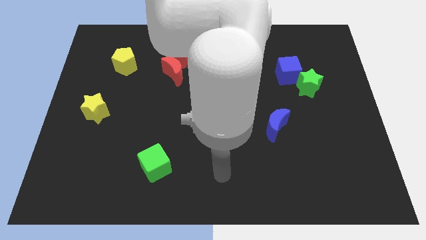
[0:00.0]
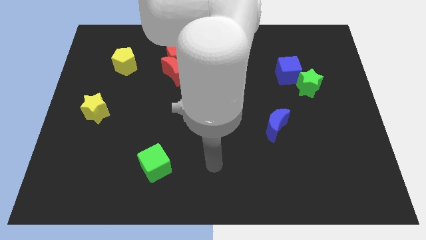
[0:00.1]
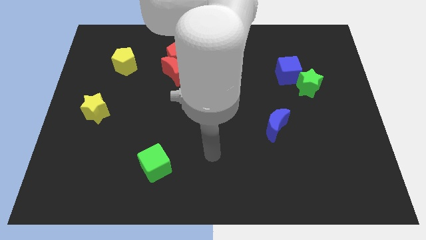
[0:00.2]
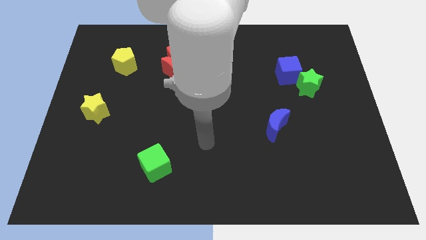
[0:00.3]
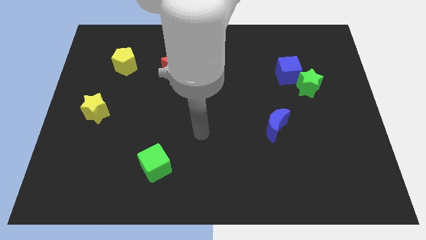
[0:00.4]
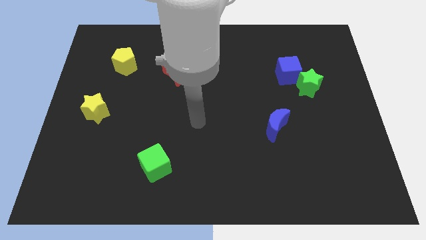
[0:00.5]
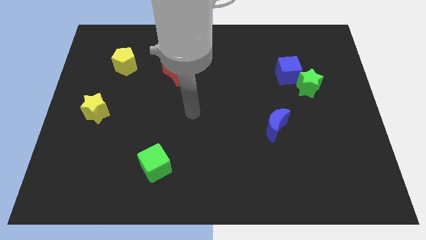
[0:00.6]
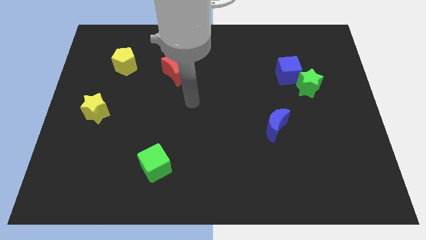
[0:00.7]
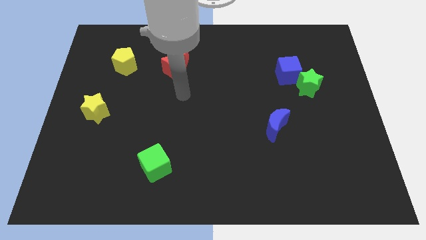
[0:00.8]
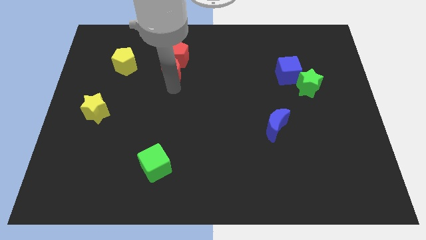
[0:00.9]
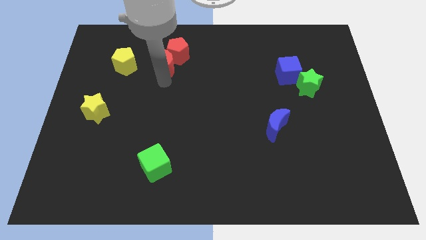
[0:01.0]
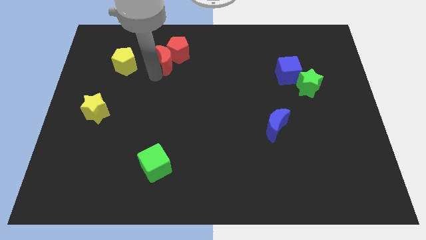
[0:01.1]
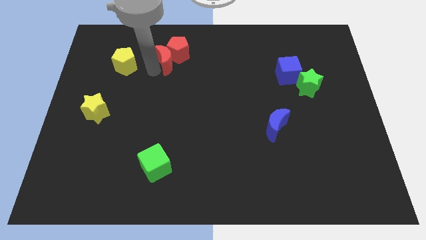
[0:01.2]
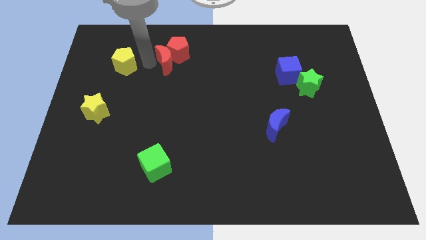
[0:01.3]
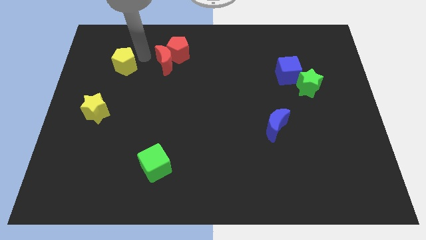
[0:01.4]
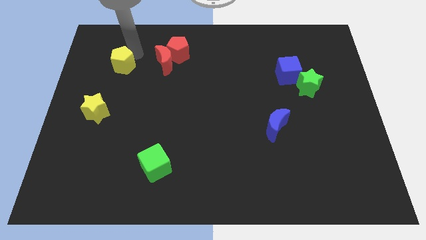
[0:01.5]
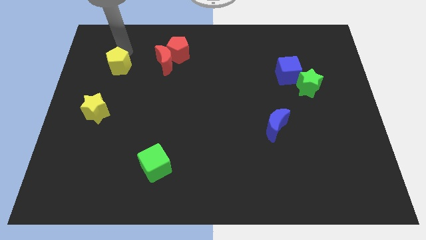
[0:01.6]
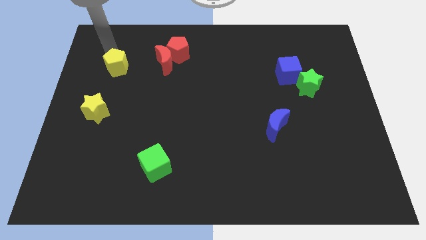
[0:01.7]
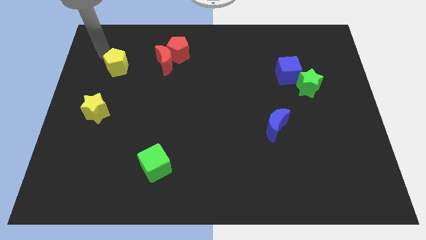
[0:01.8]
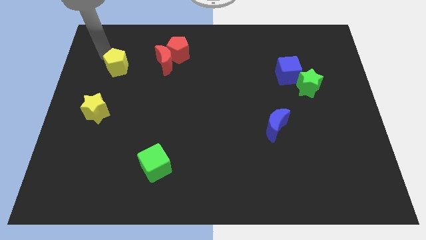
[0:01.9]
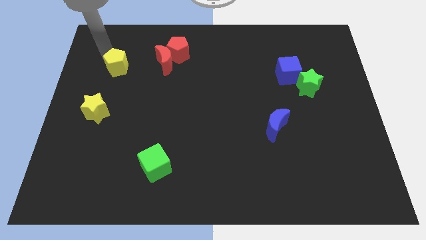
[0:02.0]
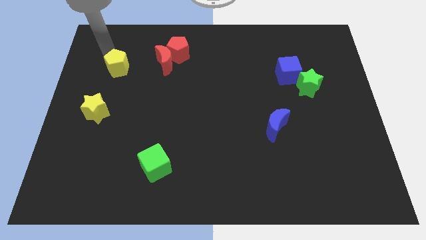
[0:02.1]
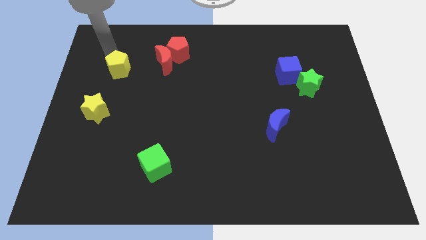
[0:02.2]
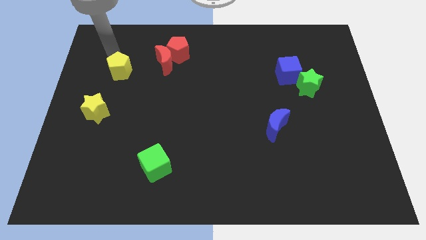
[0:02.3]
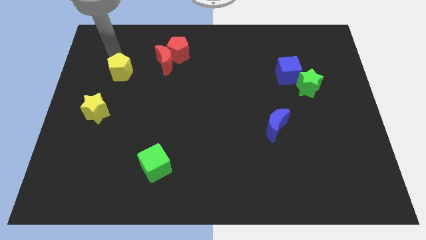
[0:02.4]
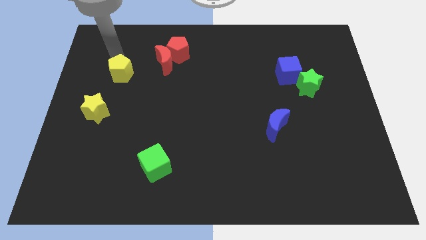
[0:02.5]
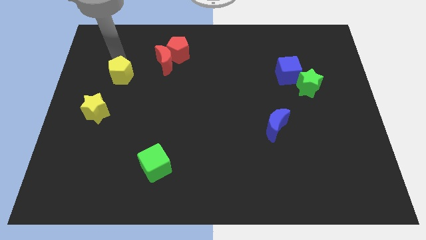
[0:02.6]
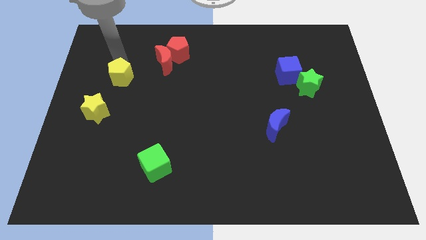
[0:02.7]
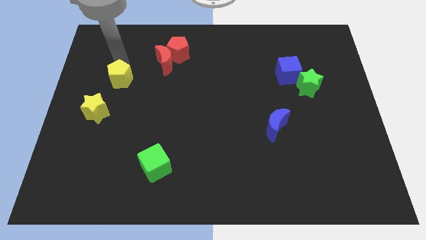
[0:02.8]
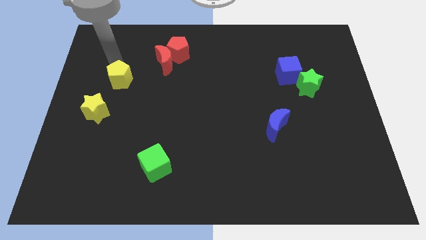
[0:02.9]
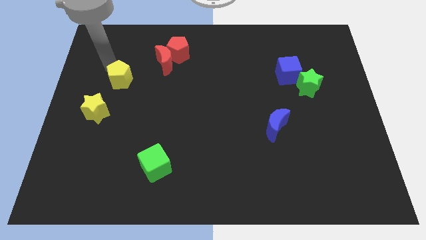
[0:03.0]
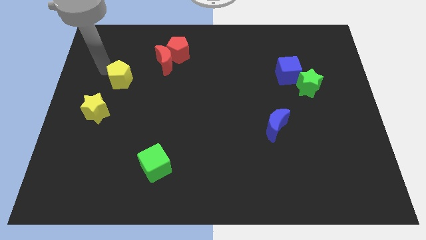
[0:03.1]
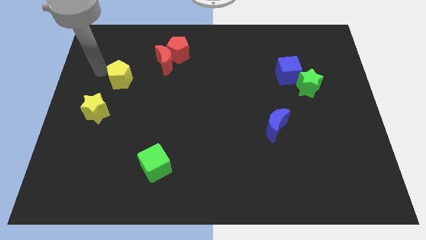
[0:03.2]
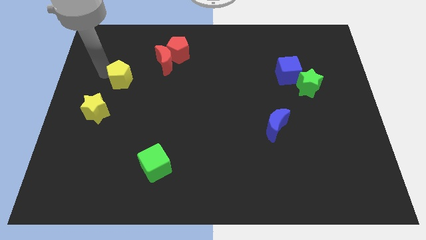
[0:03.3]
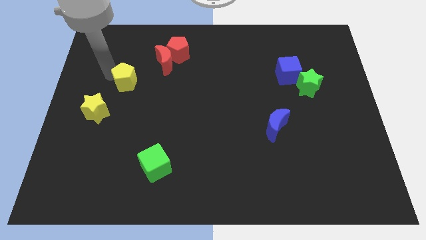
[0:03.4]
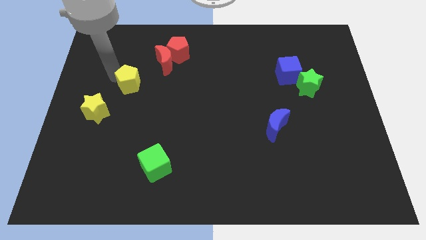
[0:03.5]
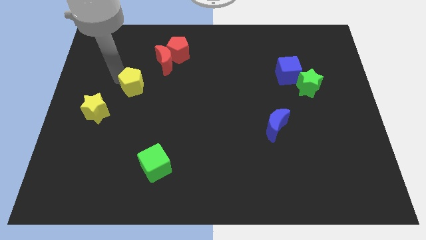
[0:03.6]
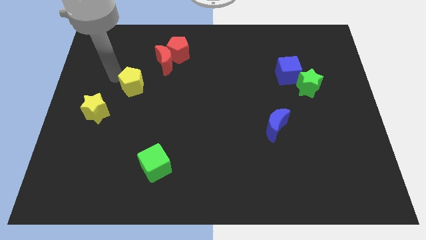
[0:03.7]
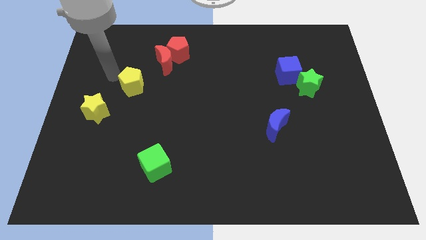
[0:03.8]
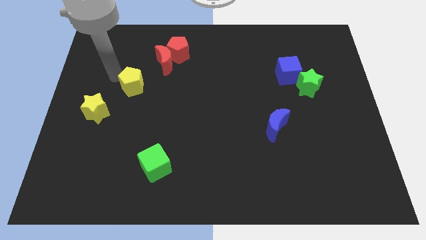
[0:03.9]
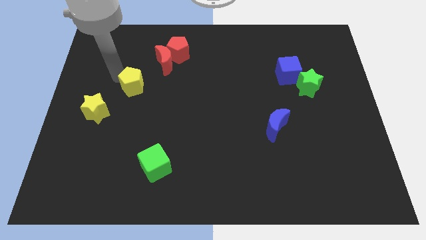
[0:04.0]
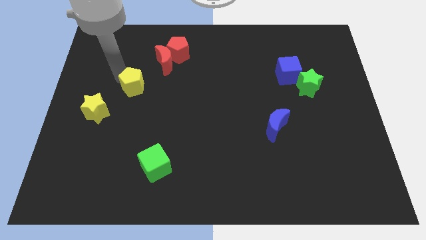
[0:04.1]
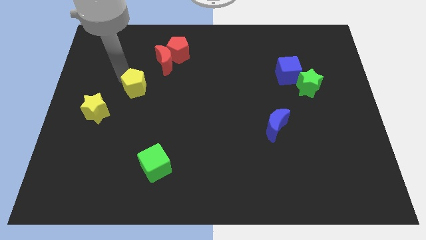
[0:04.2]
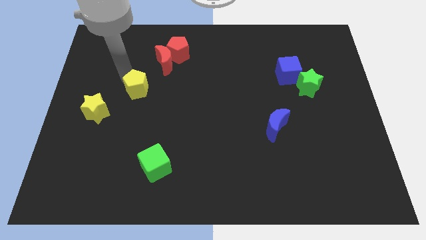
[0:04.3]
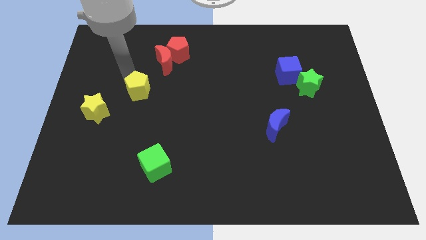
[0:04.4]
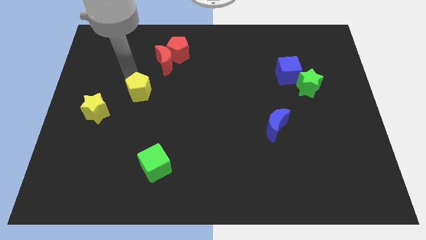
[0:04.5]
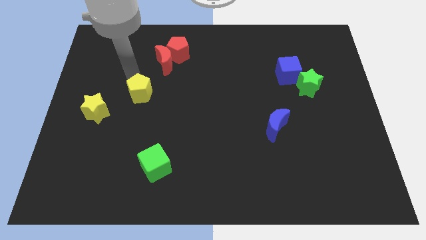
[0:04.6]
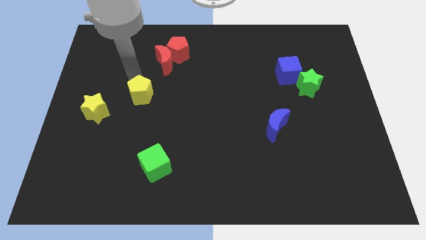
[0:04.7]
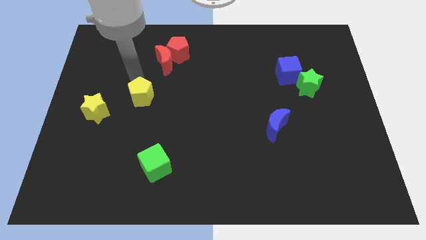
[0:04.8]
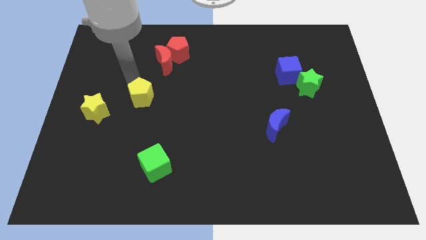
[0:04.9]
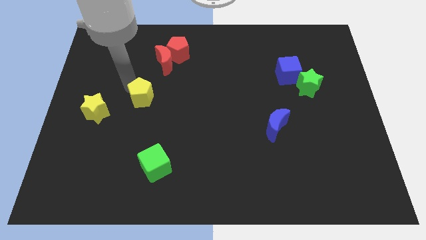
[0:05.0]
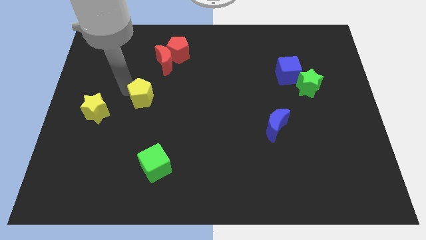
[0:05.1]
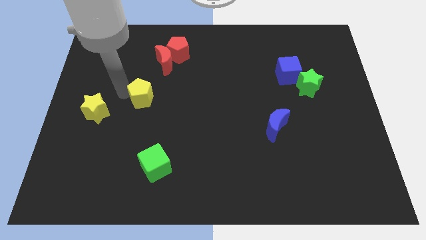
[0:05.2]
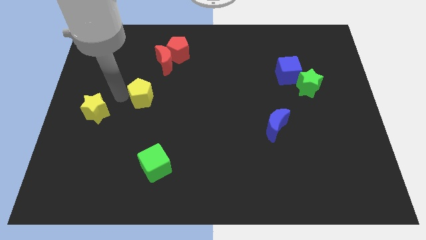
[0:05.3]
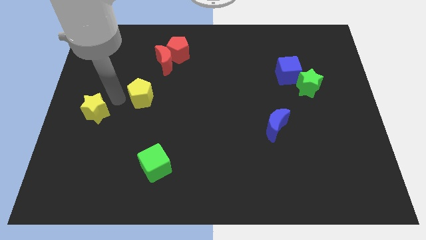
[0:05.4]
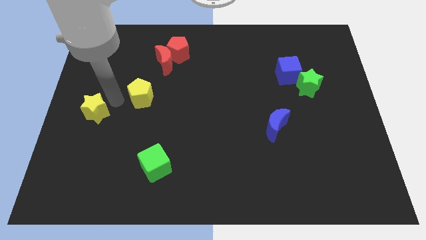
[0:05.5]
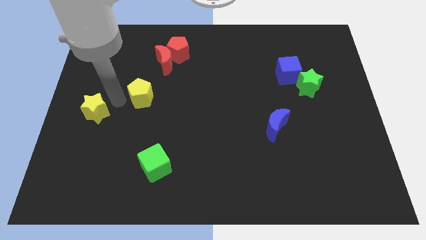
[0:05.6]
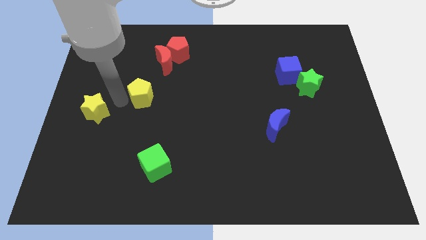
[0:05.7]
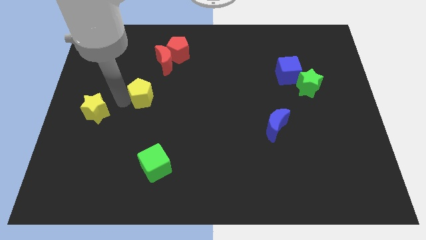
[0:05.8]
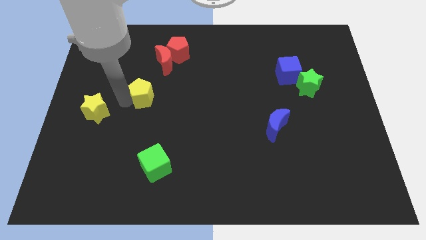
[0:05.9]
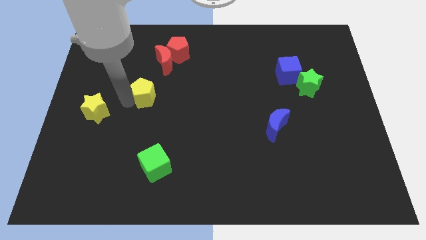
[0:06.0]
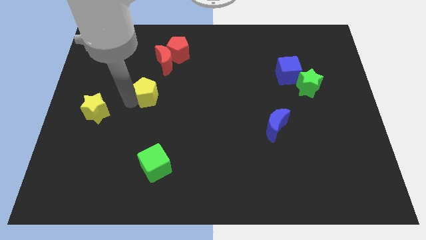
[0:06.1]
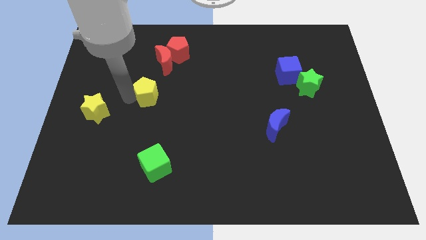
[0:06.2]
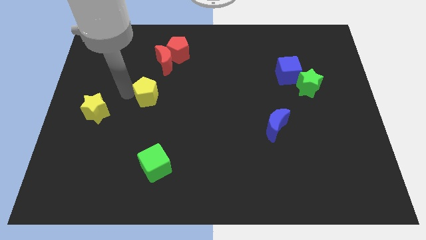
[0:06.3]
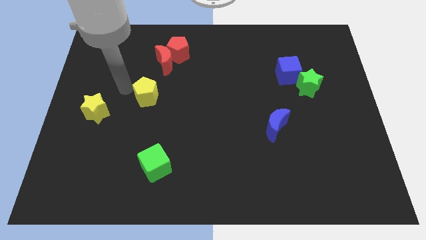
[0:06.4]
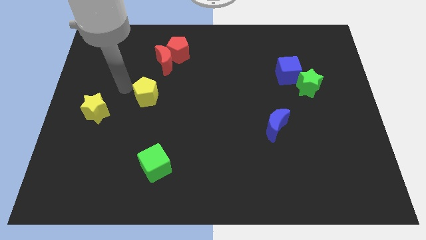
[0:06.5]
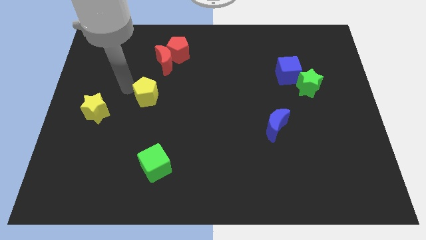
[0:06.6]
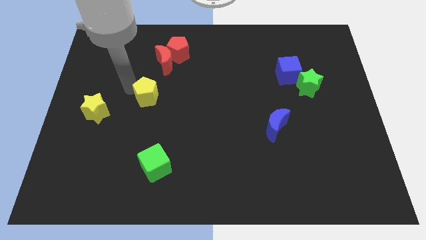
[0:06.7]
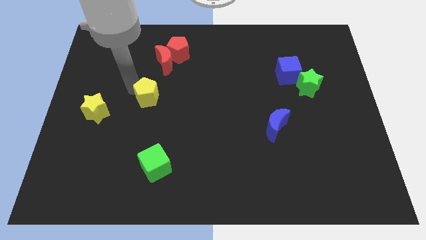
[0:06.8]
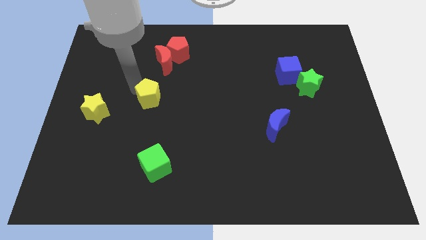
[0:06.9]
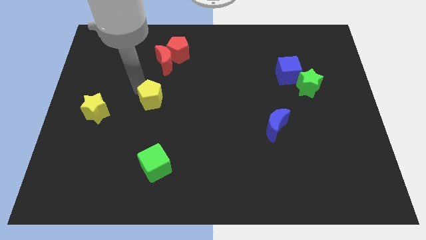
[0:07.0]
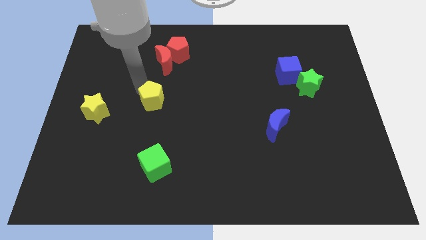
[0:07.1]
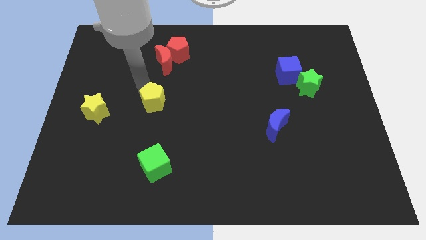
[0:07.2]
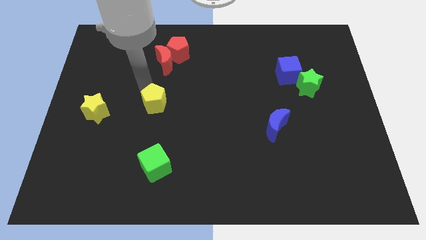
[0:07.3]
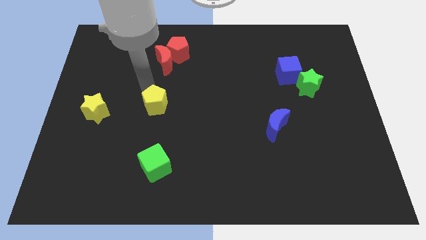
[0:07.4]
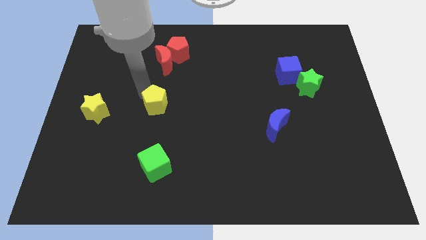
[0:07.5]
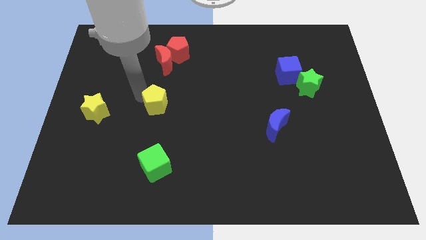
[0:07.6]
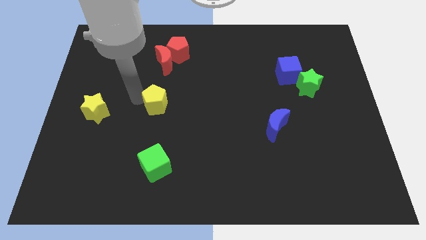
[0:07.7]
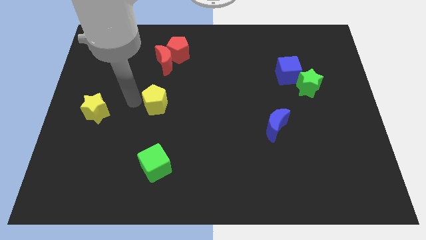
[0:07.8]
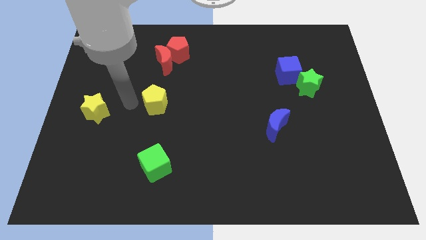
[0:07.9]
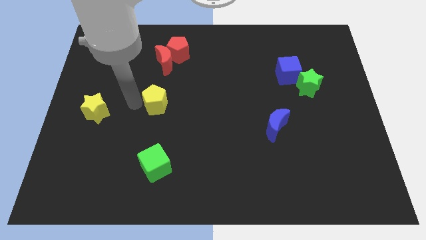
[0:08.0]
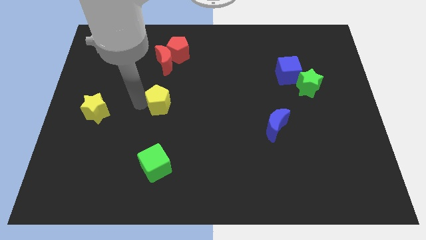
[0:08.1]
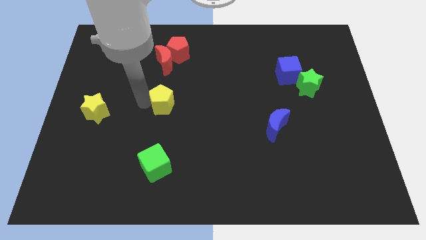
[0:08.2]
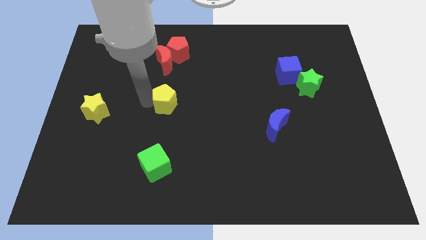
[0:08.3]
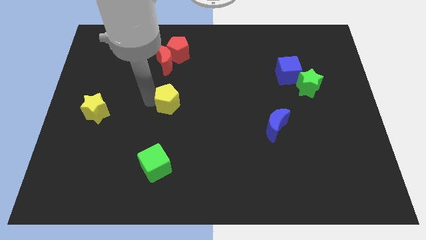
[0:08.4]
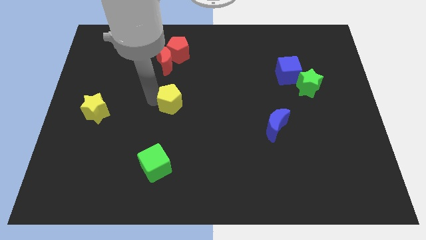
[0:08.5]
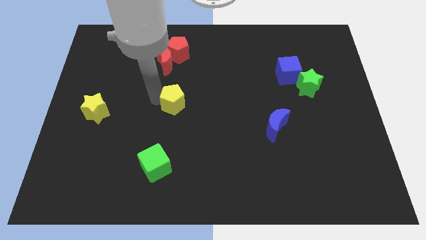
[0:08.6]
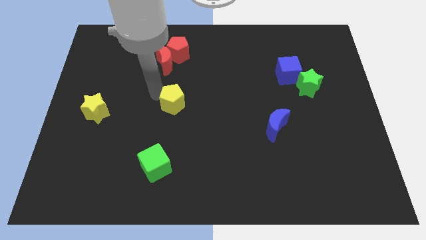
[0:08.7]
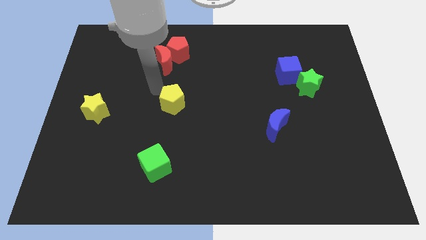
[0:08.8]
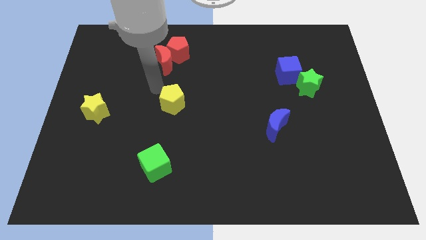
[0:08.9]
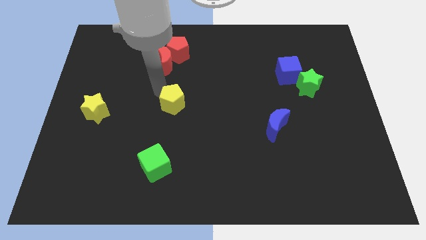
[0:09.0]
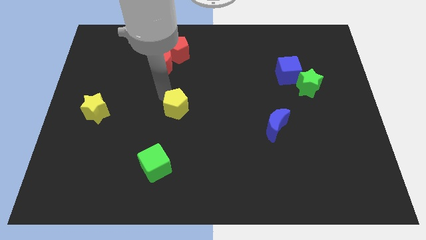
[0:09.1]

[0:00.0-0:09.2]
move the yellow pentagon diagonally downwards and right
